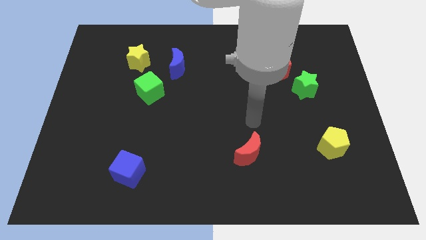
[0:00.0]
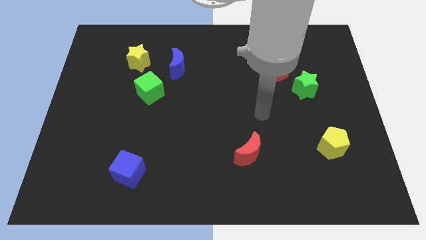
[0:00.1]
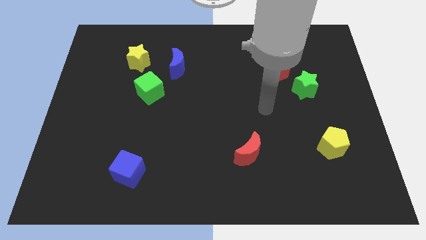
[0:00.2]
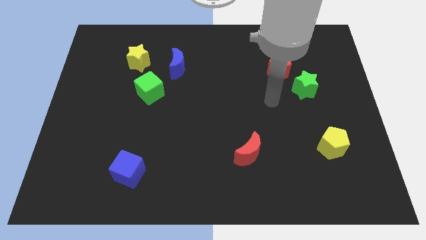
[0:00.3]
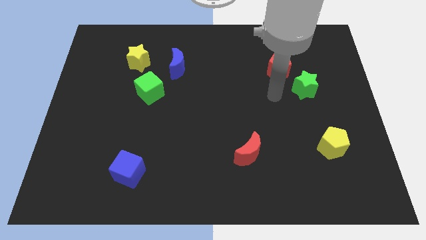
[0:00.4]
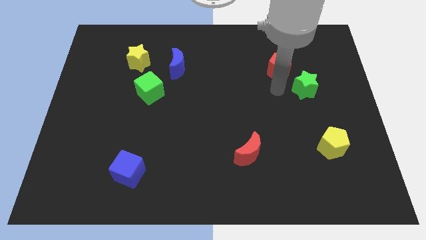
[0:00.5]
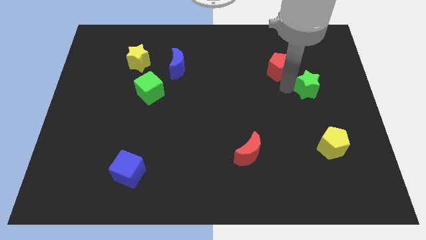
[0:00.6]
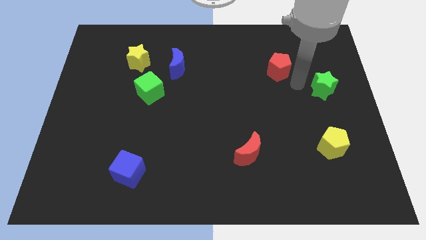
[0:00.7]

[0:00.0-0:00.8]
move the red pentagon away from the green star

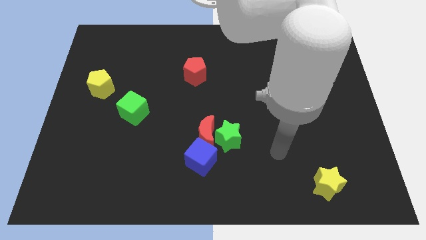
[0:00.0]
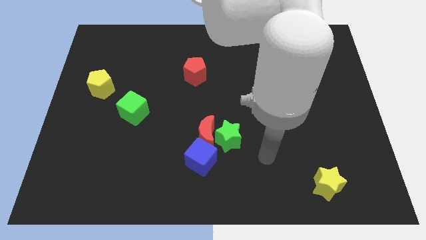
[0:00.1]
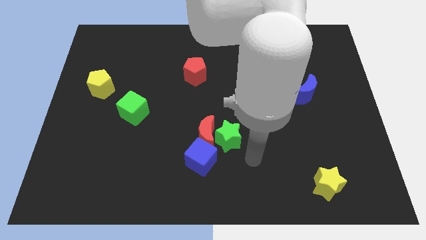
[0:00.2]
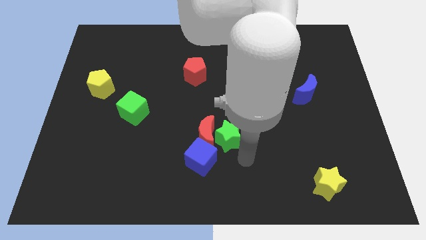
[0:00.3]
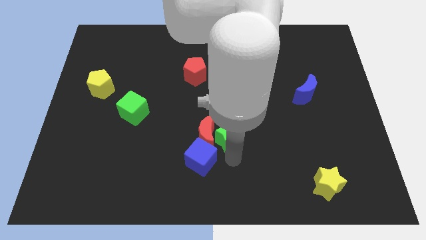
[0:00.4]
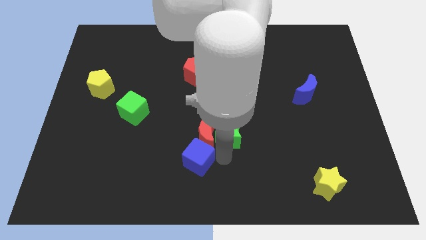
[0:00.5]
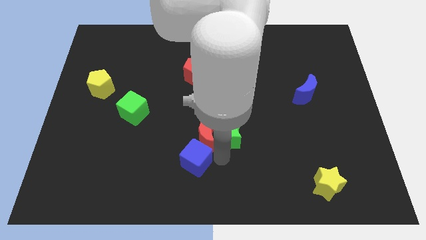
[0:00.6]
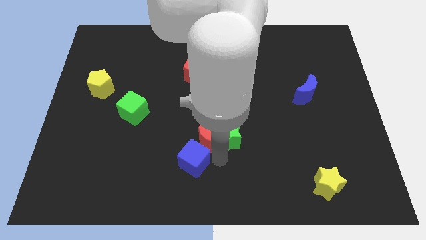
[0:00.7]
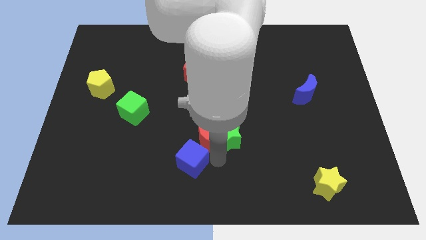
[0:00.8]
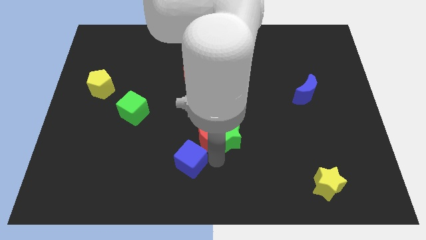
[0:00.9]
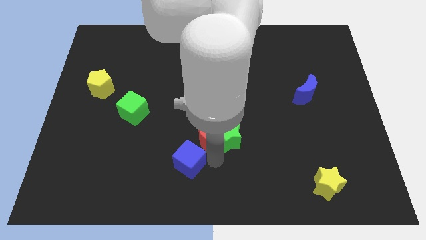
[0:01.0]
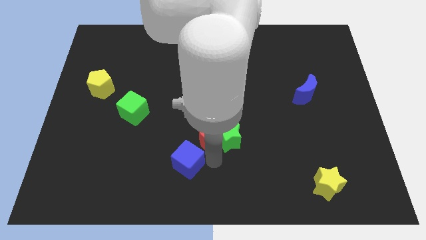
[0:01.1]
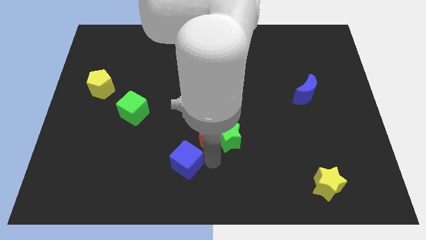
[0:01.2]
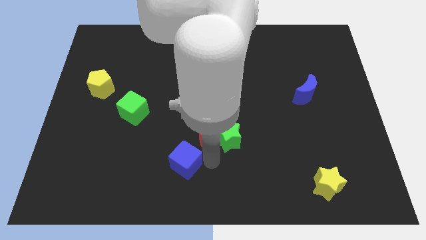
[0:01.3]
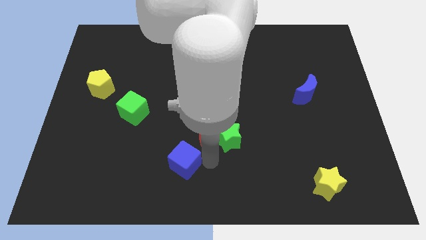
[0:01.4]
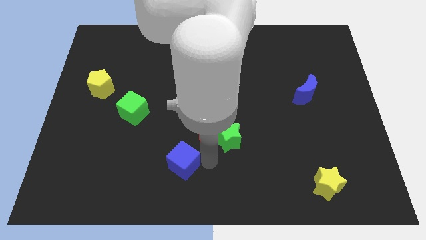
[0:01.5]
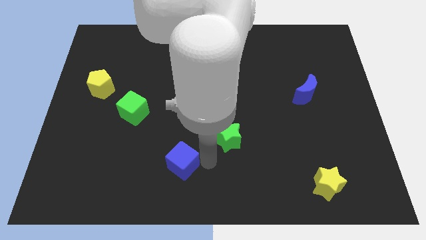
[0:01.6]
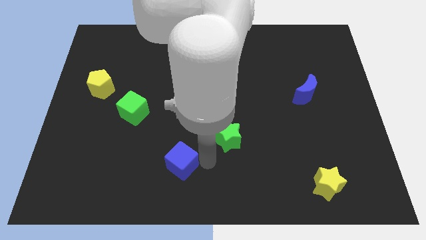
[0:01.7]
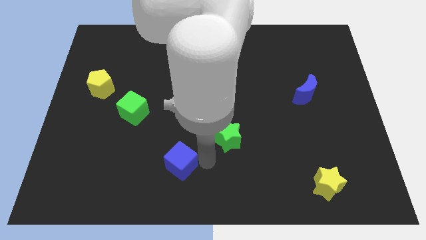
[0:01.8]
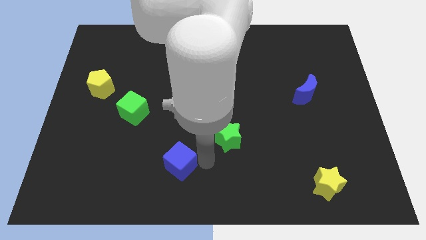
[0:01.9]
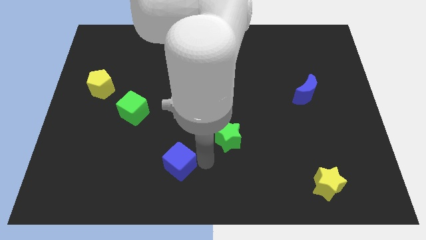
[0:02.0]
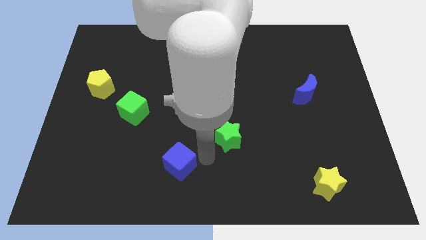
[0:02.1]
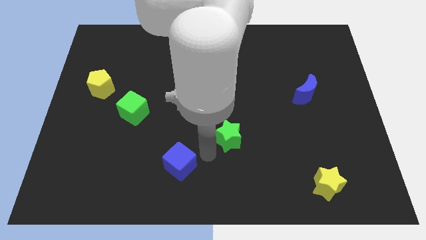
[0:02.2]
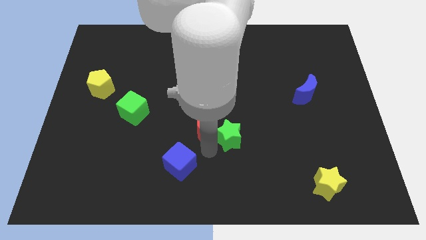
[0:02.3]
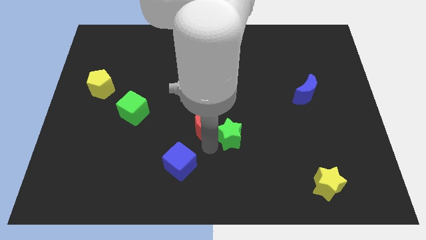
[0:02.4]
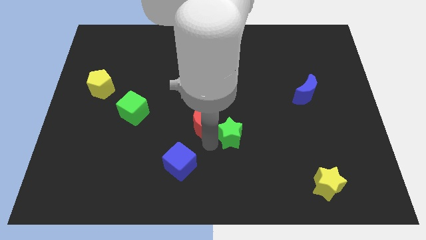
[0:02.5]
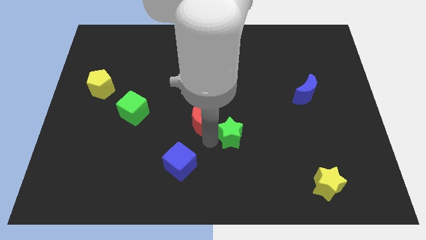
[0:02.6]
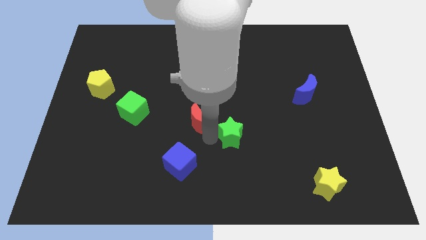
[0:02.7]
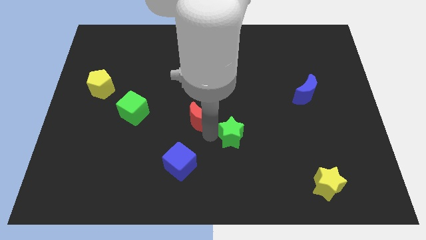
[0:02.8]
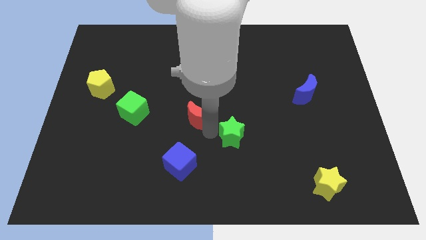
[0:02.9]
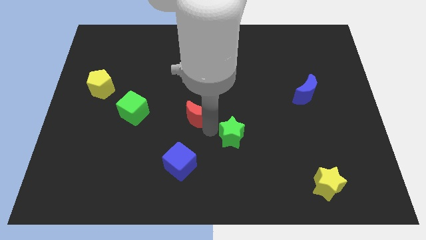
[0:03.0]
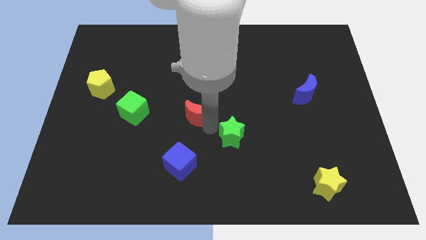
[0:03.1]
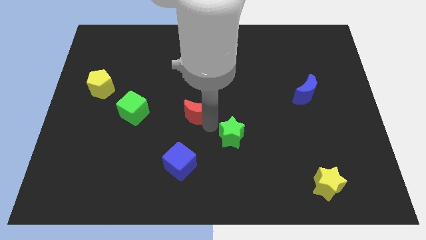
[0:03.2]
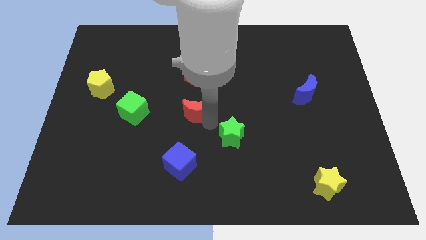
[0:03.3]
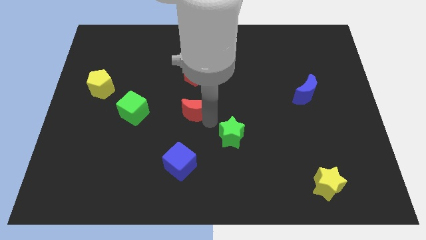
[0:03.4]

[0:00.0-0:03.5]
separate the red moon from the green star and blue cube

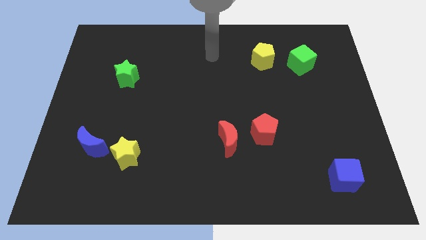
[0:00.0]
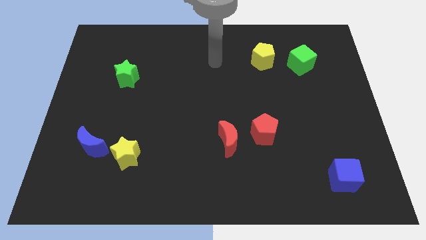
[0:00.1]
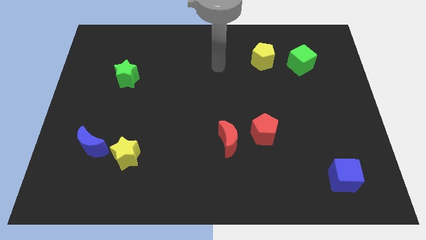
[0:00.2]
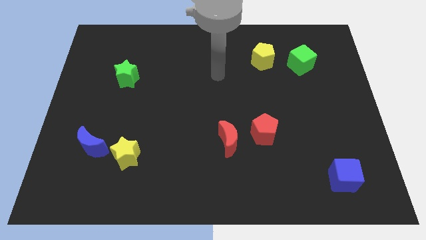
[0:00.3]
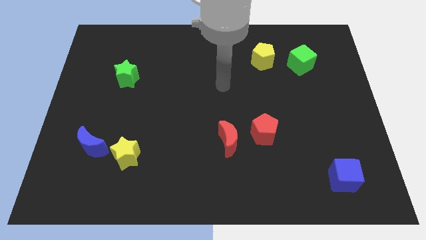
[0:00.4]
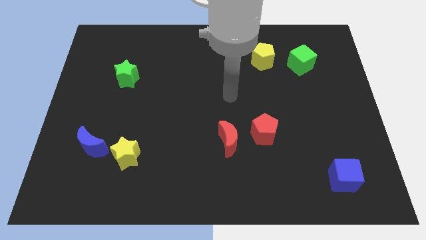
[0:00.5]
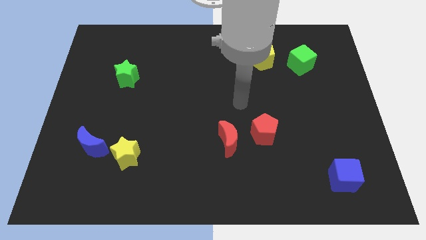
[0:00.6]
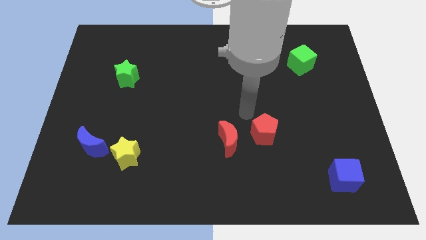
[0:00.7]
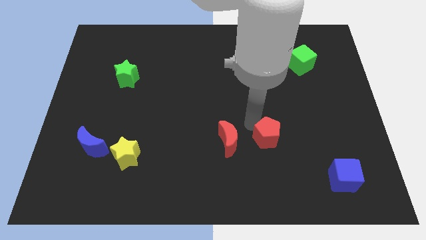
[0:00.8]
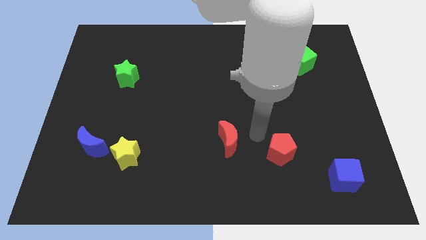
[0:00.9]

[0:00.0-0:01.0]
separate the red moon from the red pentagon

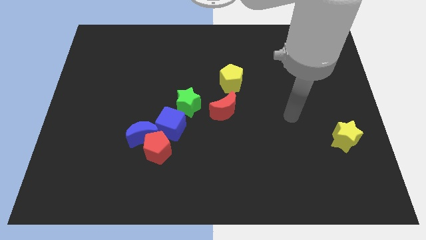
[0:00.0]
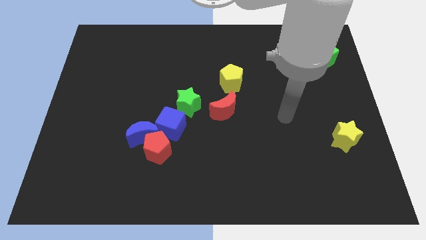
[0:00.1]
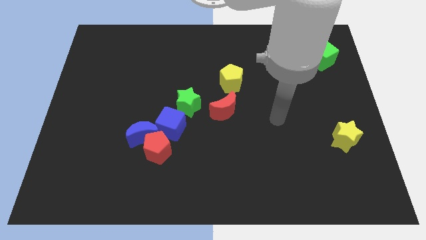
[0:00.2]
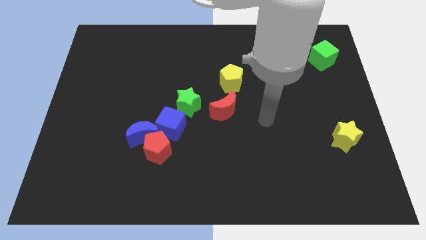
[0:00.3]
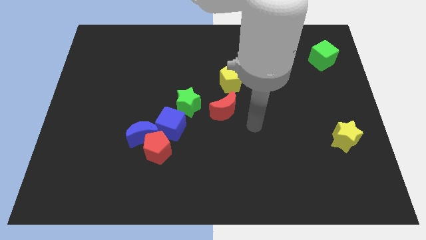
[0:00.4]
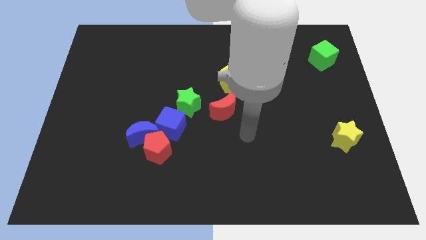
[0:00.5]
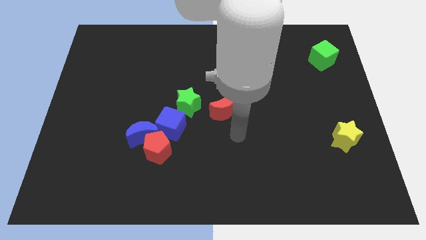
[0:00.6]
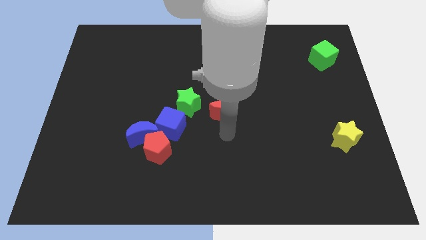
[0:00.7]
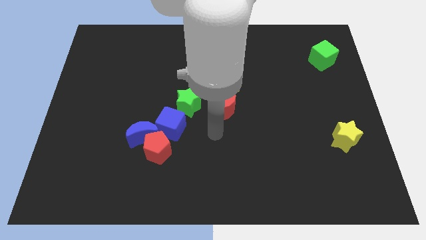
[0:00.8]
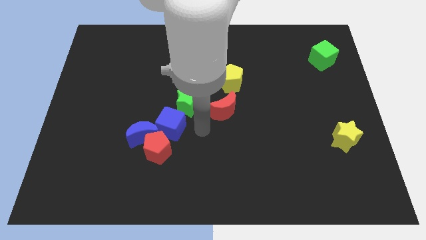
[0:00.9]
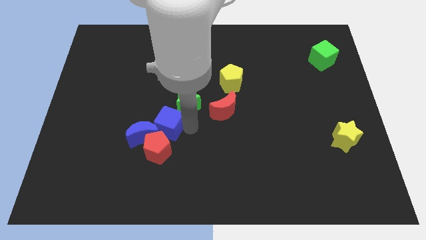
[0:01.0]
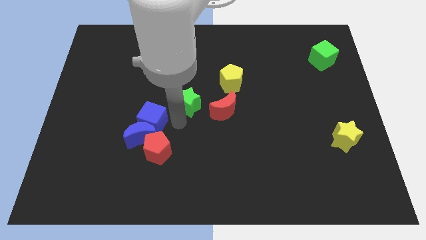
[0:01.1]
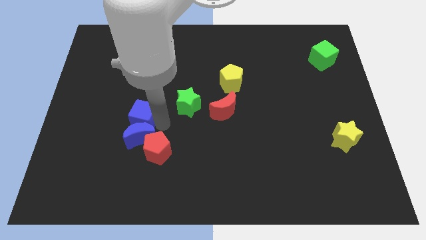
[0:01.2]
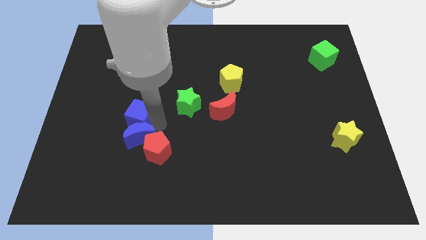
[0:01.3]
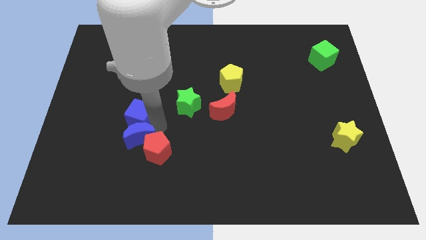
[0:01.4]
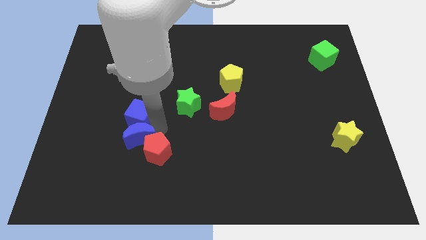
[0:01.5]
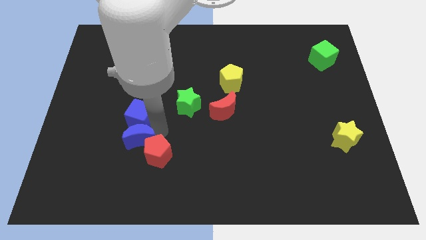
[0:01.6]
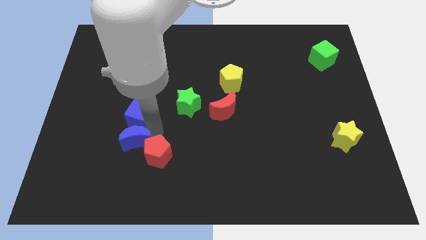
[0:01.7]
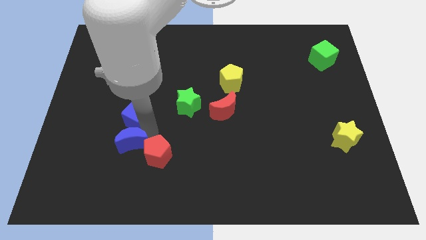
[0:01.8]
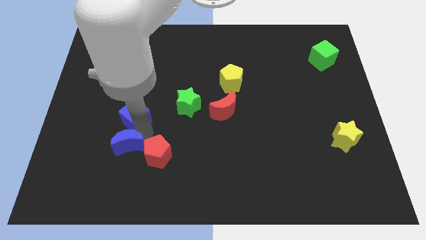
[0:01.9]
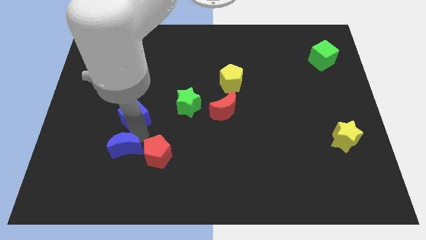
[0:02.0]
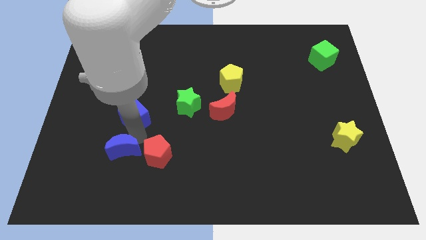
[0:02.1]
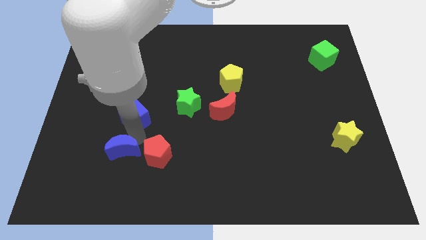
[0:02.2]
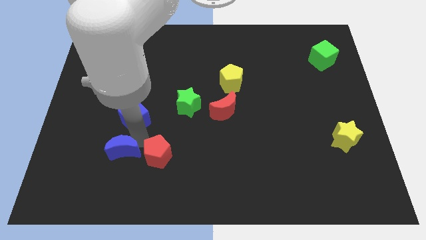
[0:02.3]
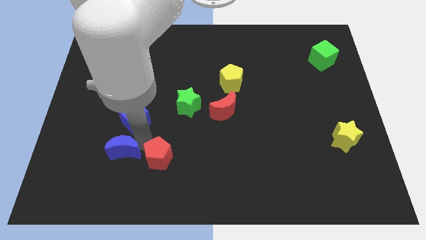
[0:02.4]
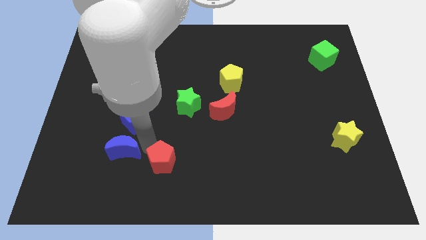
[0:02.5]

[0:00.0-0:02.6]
move the red pentagon away from the blue moon and blue cube

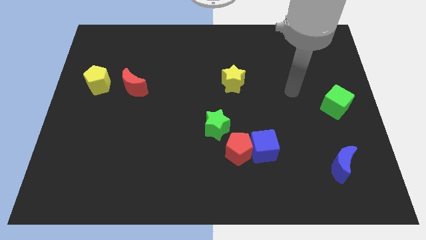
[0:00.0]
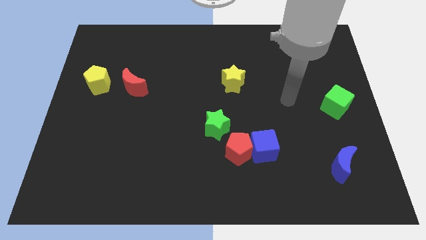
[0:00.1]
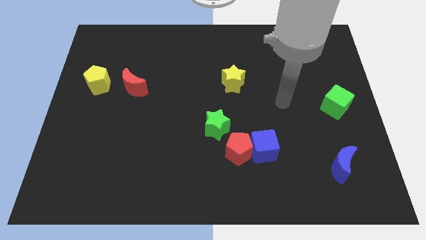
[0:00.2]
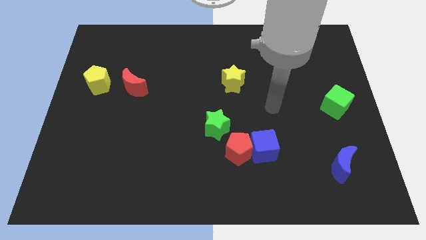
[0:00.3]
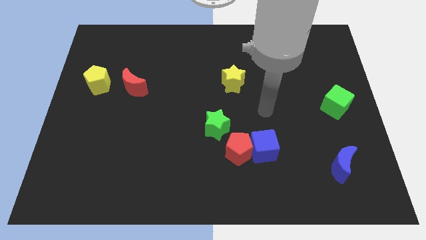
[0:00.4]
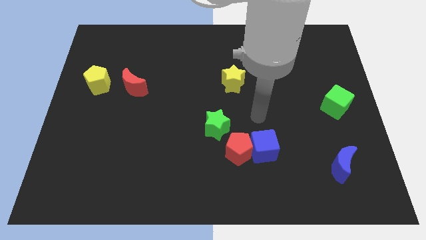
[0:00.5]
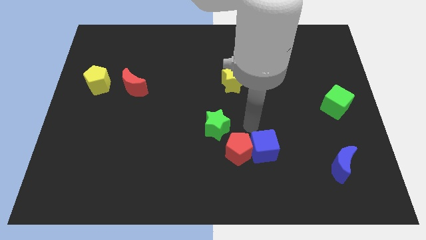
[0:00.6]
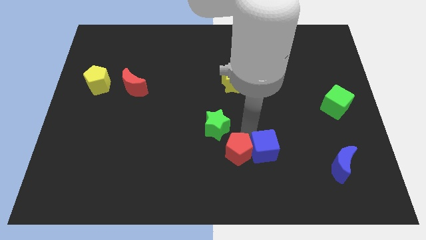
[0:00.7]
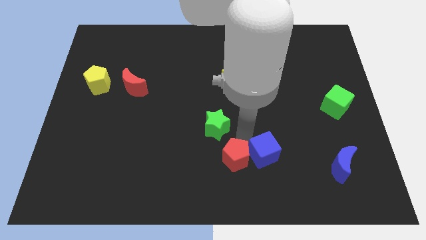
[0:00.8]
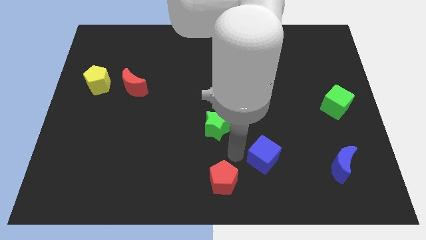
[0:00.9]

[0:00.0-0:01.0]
pull the blue cube apart from the red pentagon

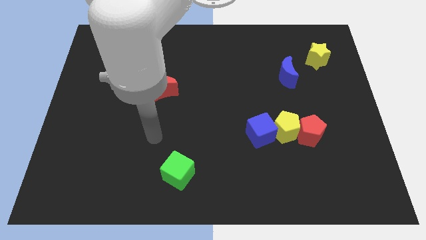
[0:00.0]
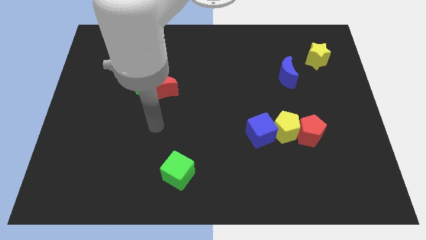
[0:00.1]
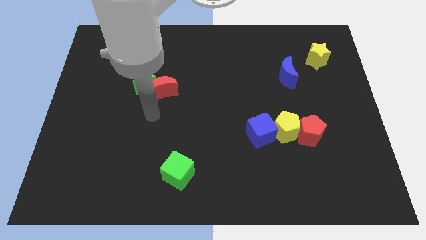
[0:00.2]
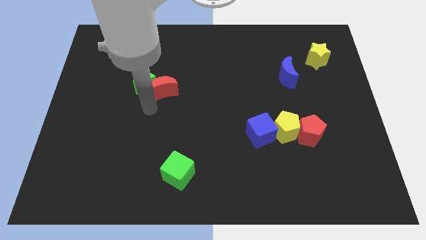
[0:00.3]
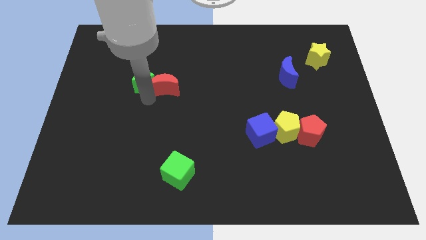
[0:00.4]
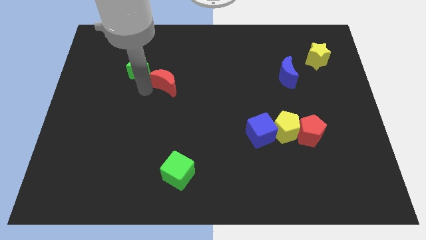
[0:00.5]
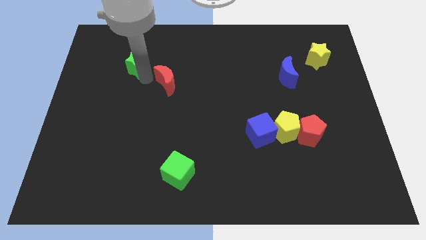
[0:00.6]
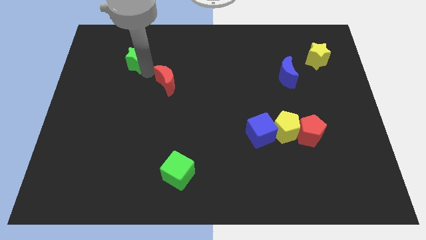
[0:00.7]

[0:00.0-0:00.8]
separate the red moon from the green star
